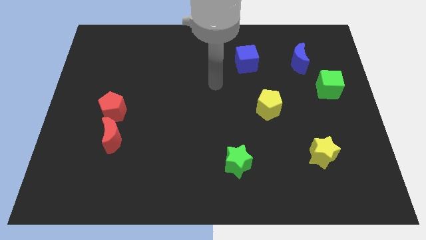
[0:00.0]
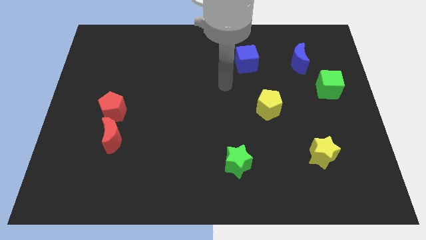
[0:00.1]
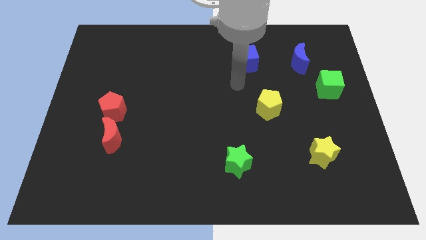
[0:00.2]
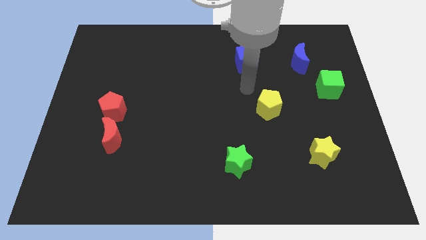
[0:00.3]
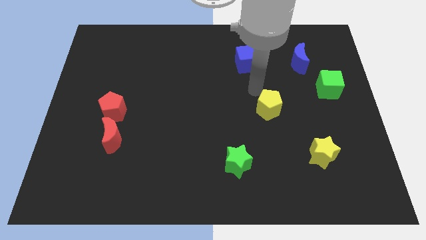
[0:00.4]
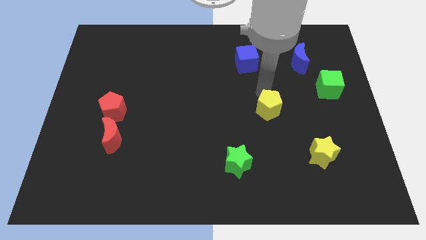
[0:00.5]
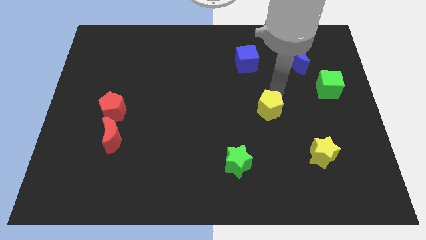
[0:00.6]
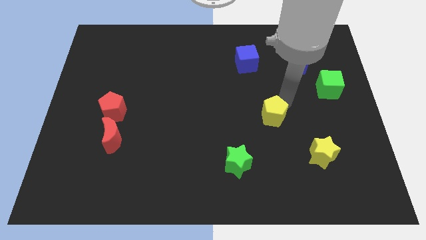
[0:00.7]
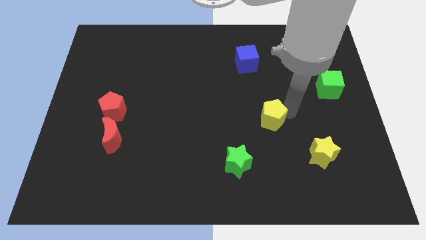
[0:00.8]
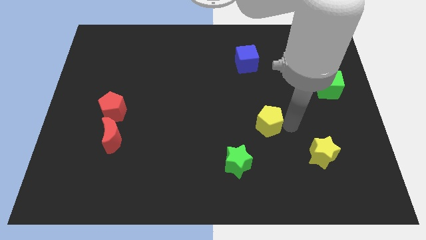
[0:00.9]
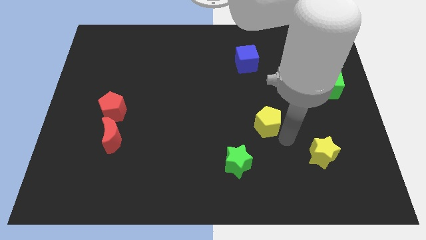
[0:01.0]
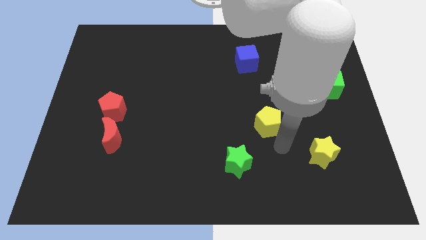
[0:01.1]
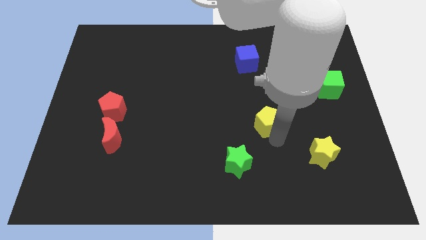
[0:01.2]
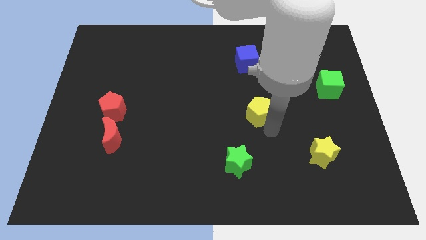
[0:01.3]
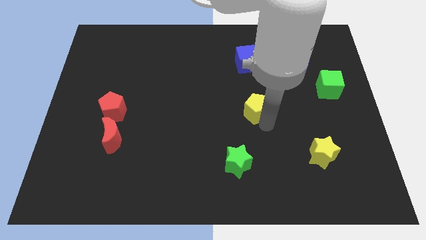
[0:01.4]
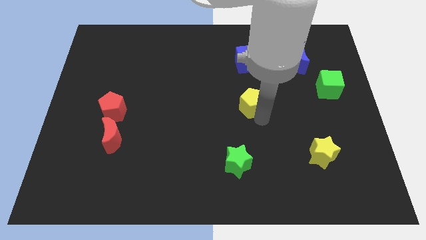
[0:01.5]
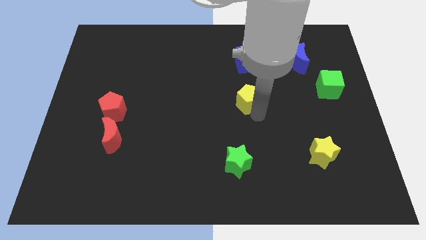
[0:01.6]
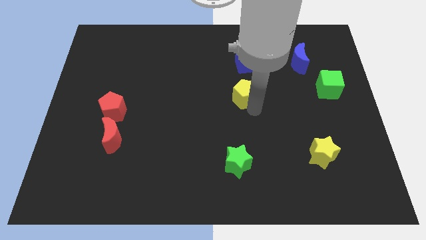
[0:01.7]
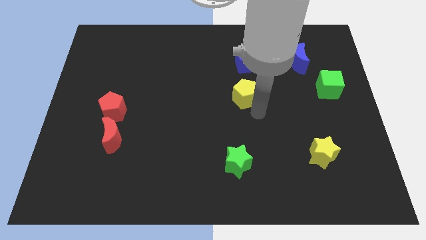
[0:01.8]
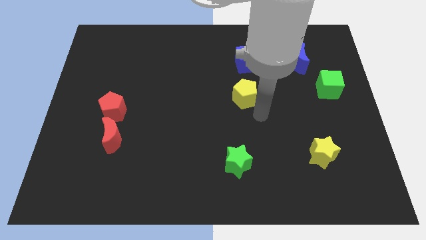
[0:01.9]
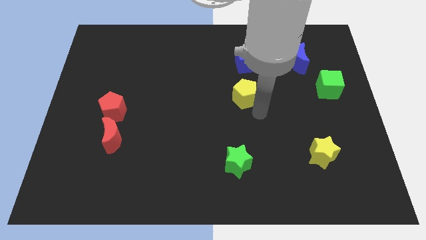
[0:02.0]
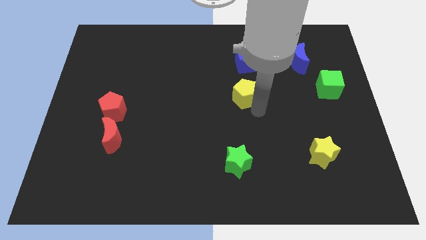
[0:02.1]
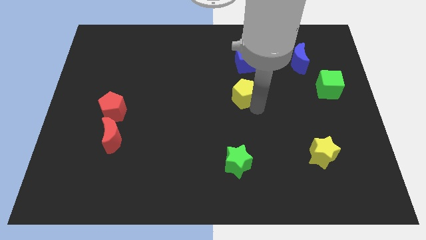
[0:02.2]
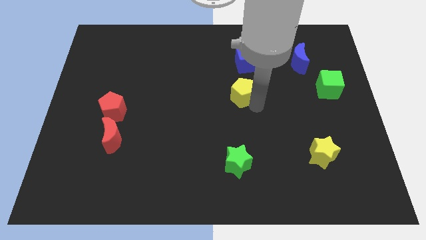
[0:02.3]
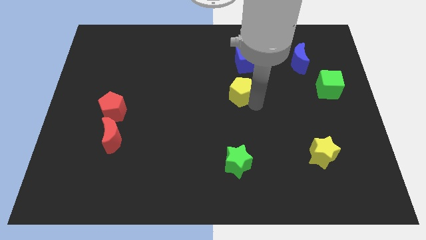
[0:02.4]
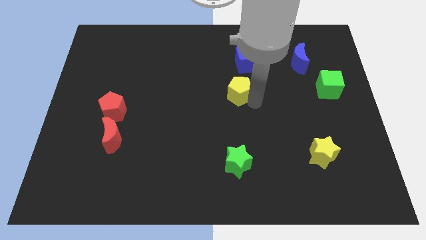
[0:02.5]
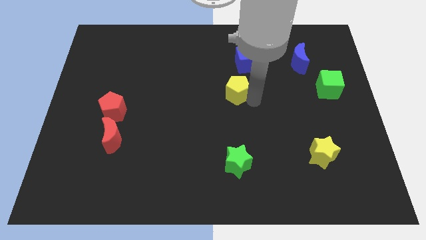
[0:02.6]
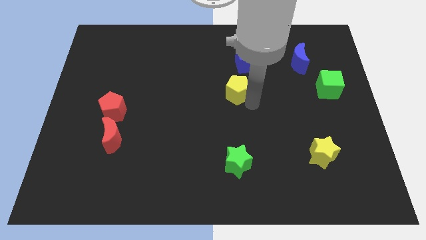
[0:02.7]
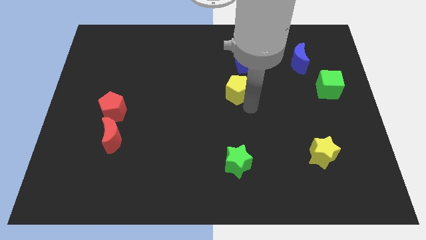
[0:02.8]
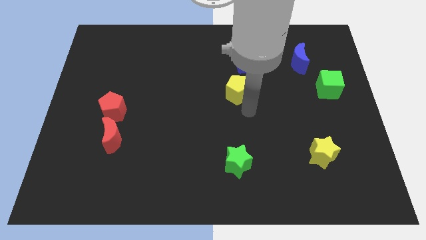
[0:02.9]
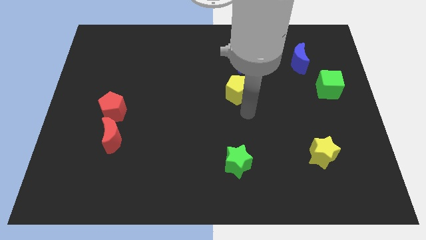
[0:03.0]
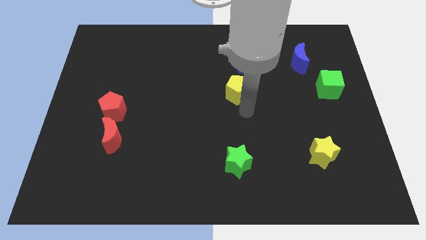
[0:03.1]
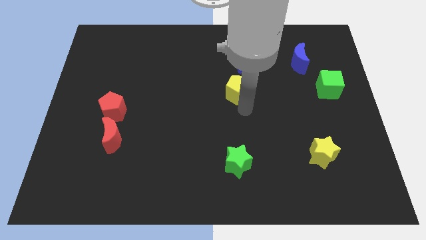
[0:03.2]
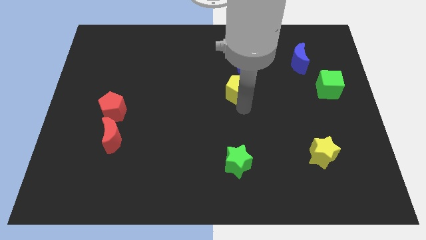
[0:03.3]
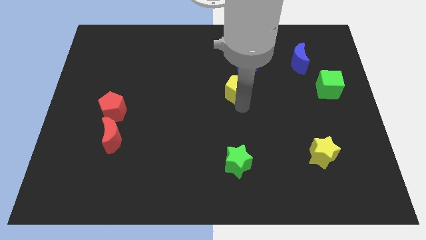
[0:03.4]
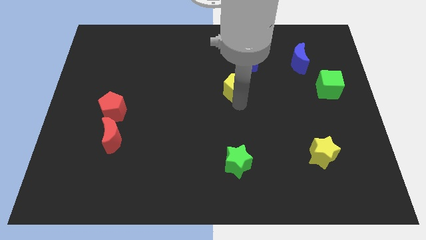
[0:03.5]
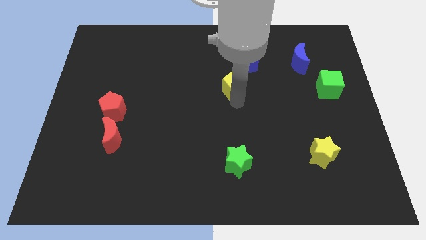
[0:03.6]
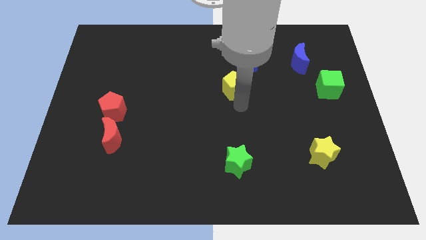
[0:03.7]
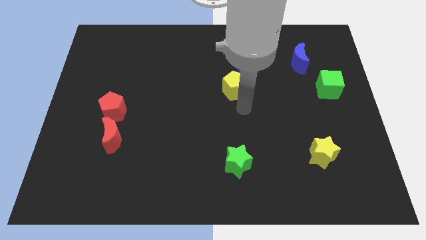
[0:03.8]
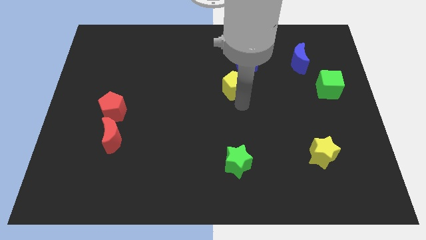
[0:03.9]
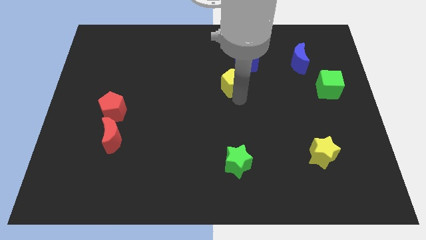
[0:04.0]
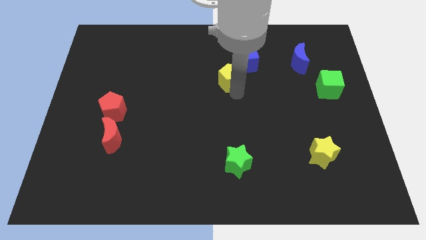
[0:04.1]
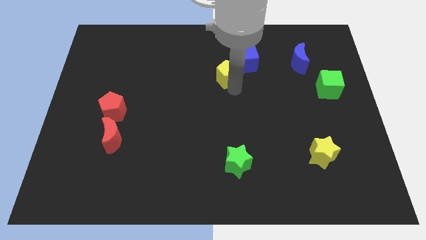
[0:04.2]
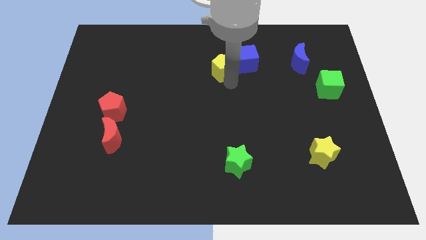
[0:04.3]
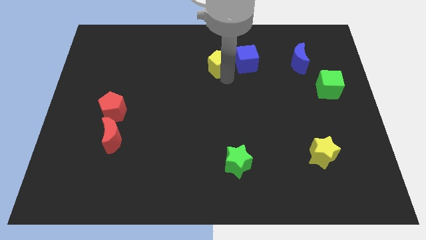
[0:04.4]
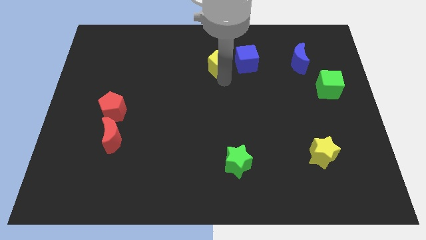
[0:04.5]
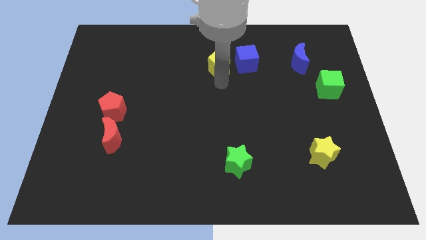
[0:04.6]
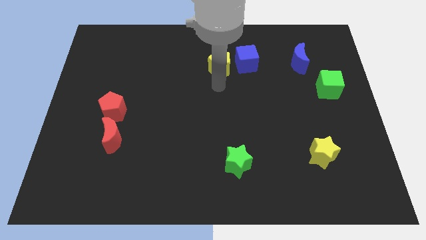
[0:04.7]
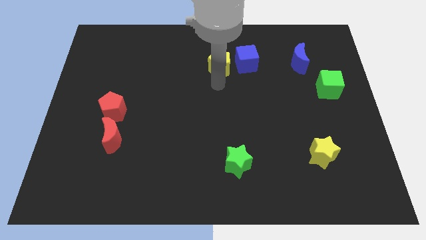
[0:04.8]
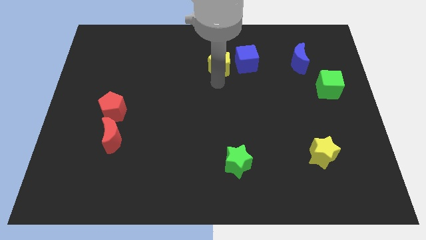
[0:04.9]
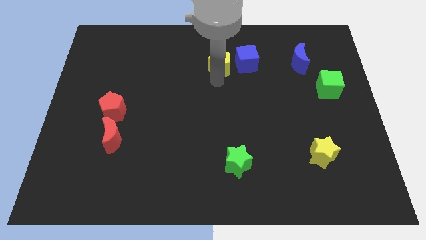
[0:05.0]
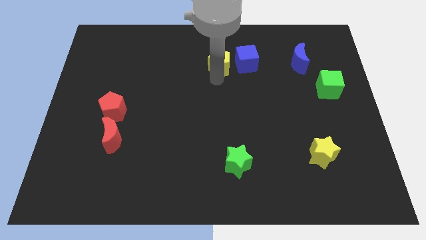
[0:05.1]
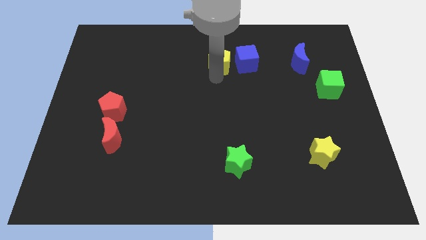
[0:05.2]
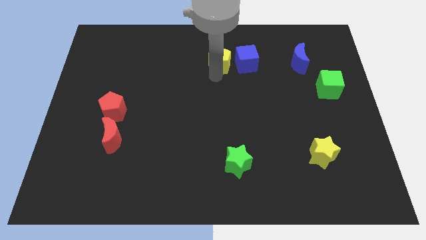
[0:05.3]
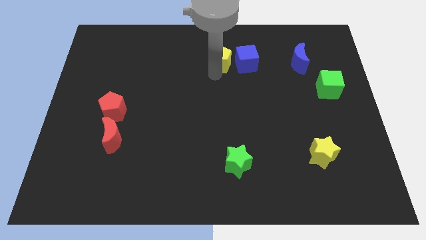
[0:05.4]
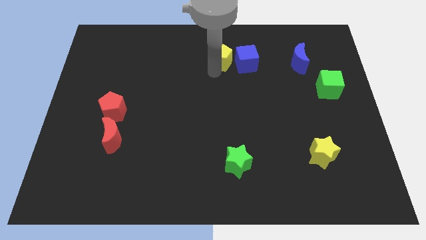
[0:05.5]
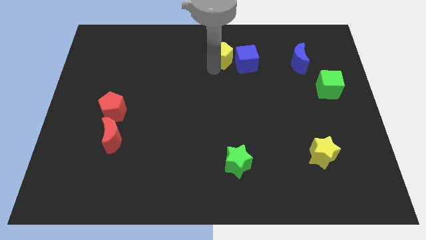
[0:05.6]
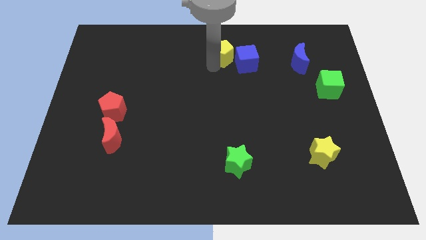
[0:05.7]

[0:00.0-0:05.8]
push the yellow pentagon to the top side
